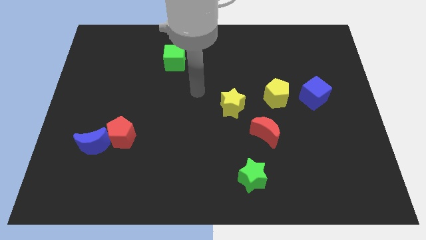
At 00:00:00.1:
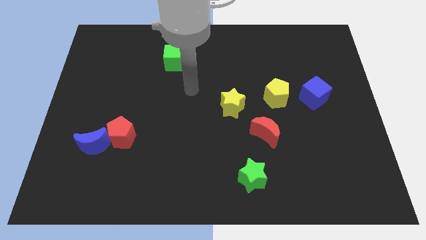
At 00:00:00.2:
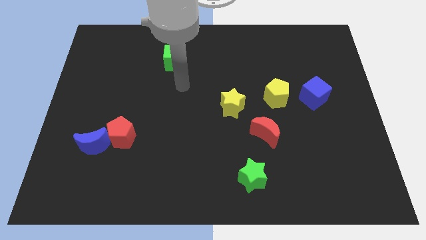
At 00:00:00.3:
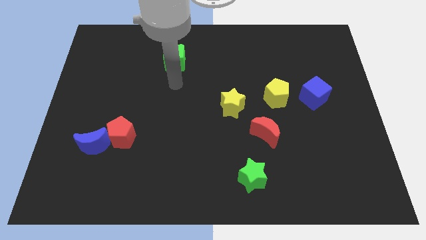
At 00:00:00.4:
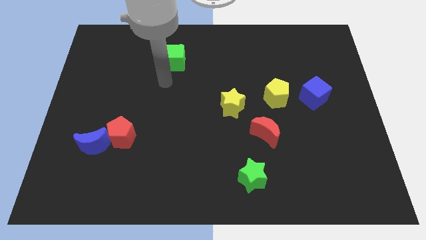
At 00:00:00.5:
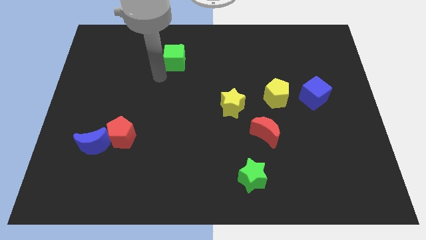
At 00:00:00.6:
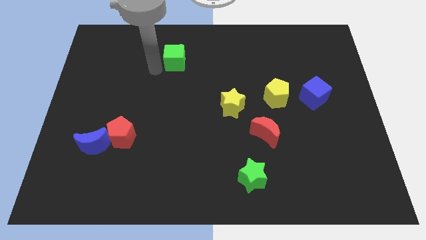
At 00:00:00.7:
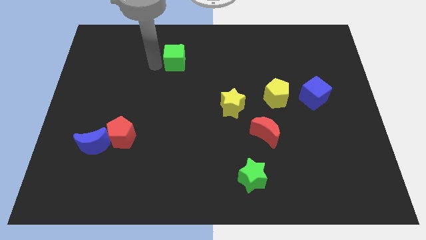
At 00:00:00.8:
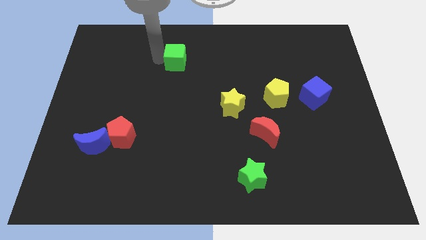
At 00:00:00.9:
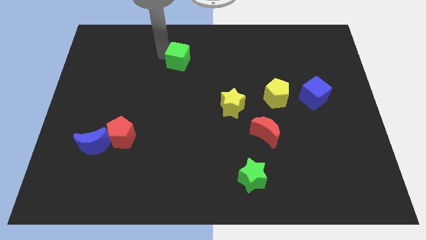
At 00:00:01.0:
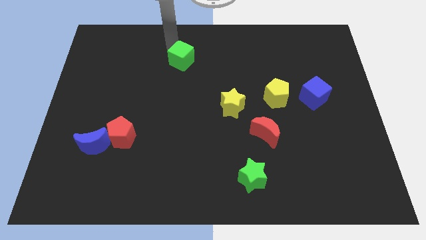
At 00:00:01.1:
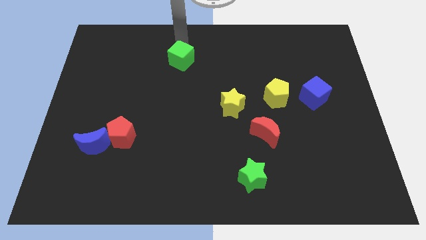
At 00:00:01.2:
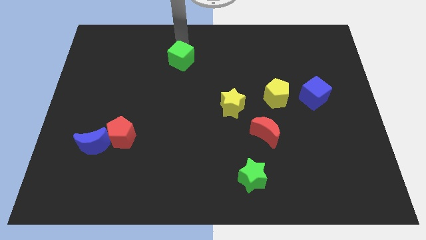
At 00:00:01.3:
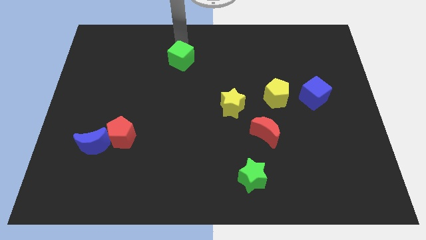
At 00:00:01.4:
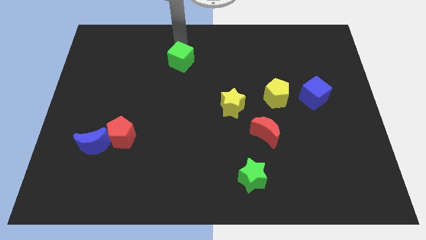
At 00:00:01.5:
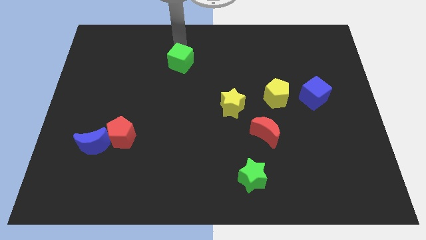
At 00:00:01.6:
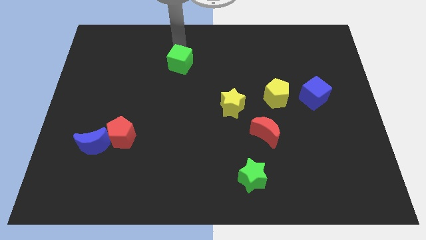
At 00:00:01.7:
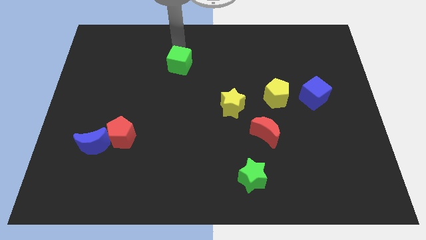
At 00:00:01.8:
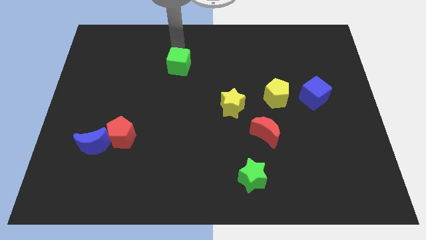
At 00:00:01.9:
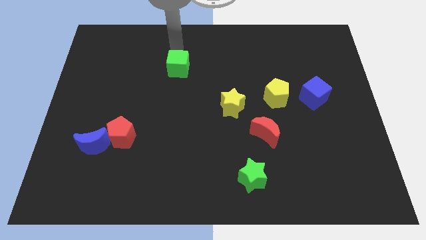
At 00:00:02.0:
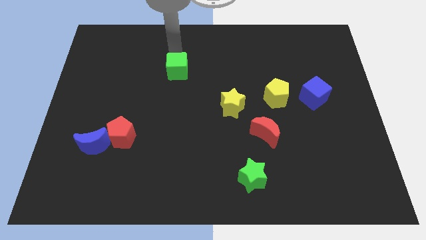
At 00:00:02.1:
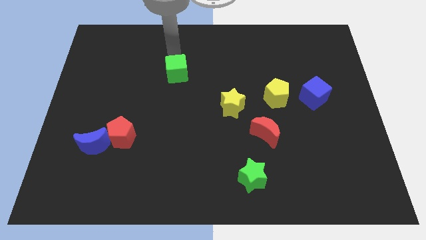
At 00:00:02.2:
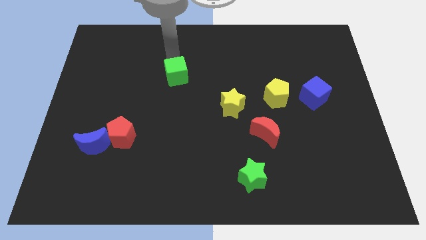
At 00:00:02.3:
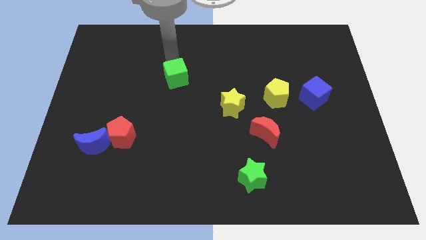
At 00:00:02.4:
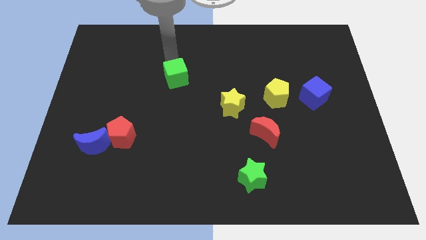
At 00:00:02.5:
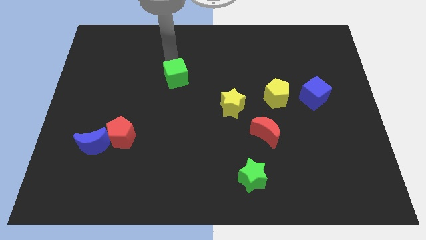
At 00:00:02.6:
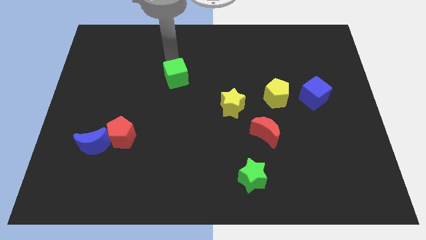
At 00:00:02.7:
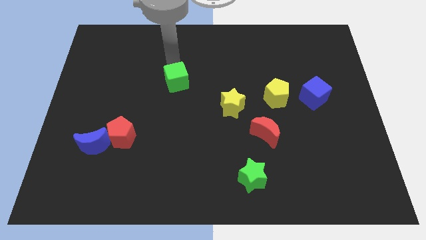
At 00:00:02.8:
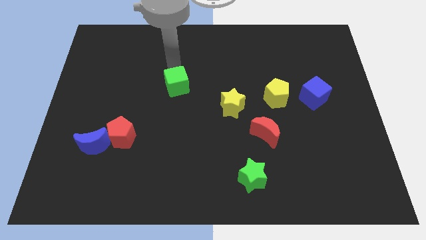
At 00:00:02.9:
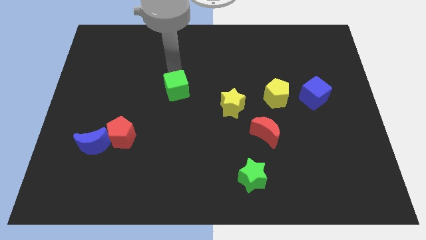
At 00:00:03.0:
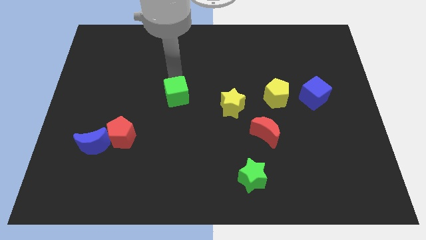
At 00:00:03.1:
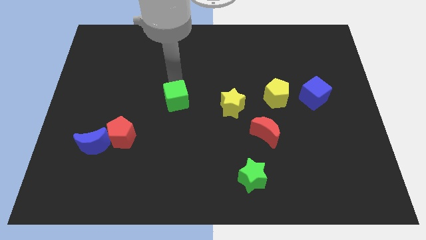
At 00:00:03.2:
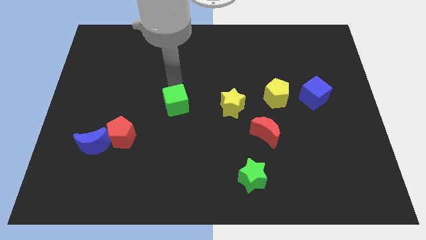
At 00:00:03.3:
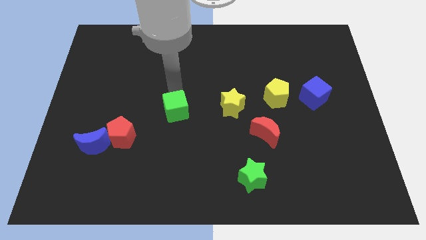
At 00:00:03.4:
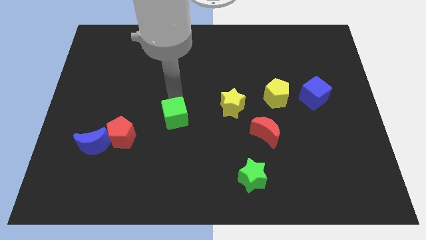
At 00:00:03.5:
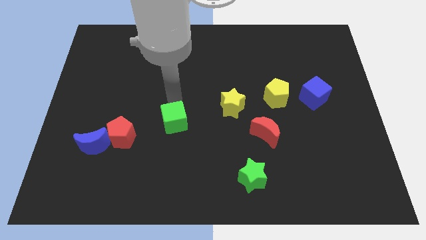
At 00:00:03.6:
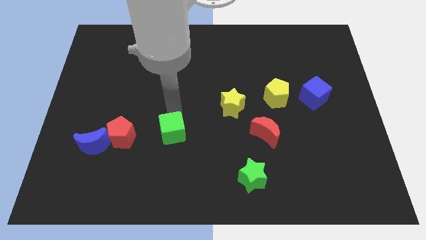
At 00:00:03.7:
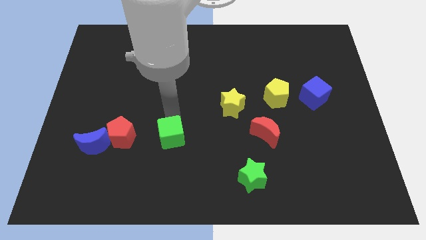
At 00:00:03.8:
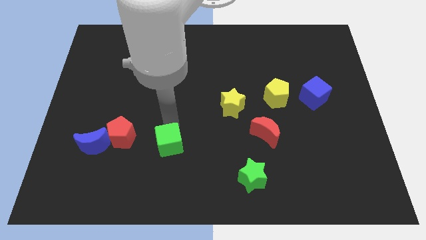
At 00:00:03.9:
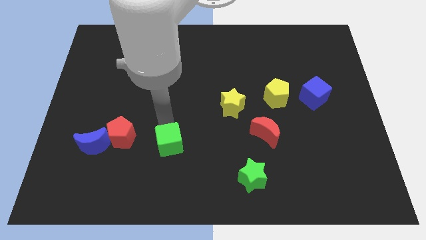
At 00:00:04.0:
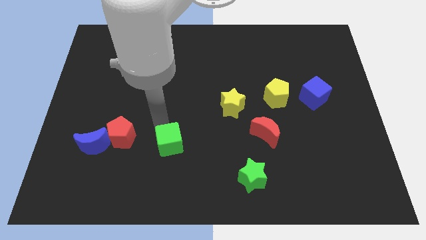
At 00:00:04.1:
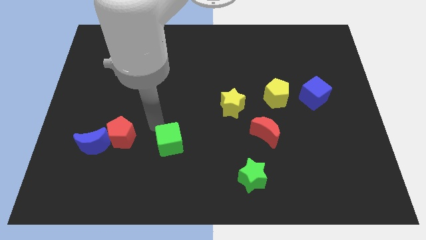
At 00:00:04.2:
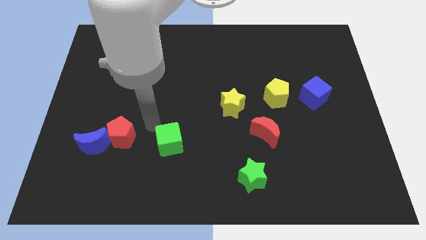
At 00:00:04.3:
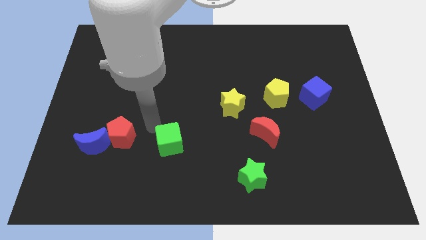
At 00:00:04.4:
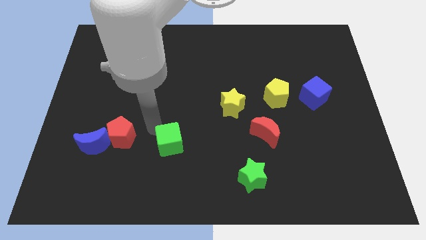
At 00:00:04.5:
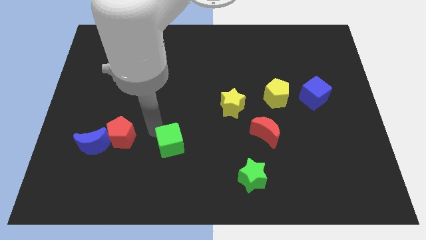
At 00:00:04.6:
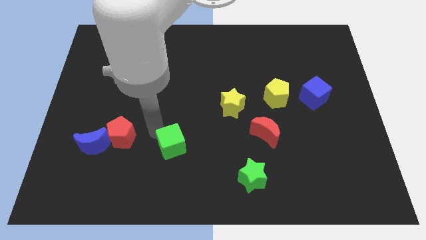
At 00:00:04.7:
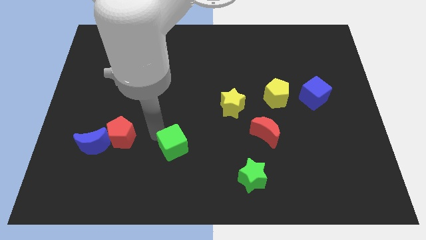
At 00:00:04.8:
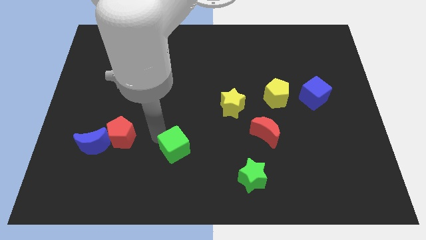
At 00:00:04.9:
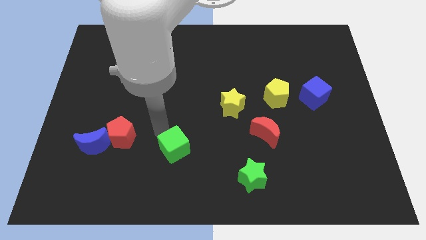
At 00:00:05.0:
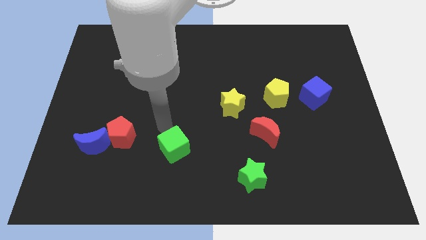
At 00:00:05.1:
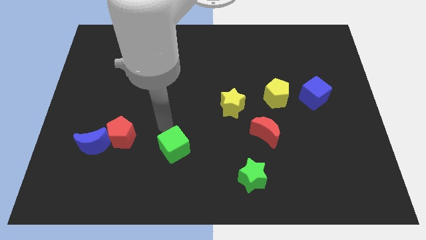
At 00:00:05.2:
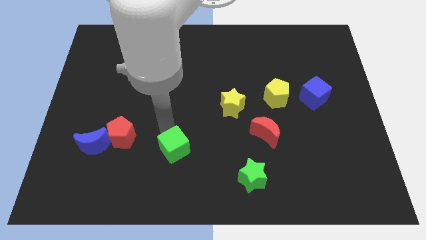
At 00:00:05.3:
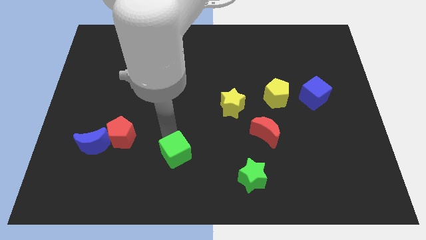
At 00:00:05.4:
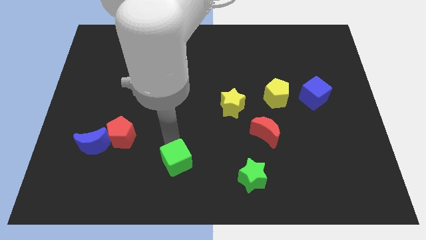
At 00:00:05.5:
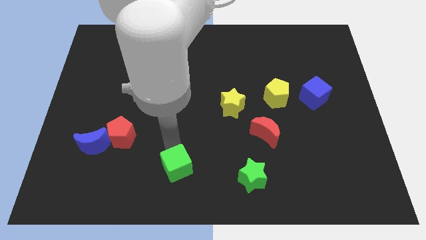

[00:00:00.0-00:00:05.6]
push the green cube to the bottom

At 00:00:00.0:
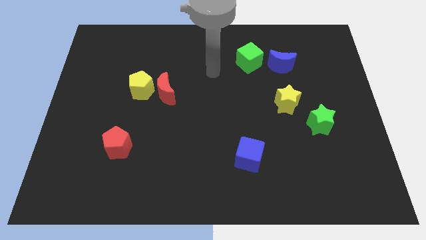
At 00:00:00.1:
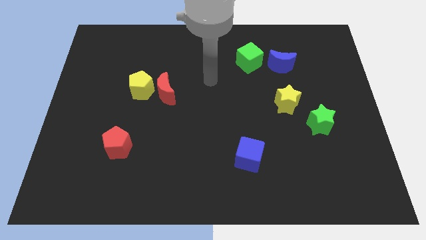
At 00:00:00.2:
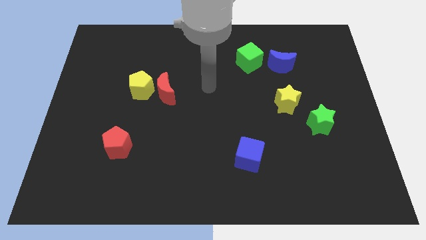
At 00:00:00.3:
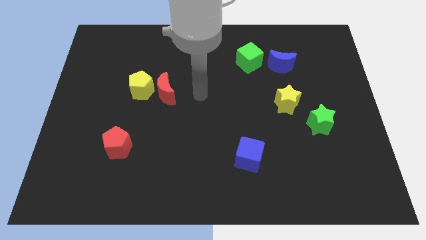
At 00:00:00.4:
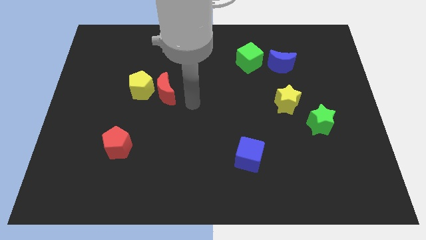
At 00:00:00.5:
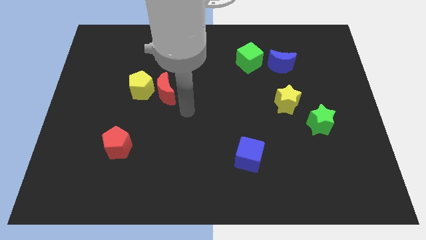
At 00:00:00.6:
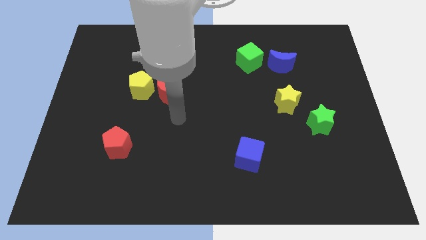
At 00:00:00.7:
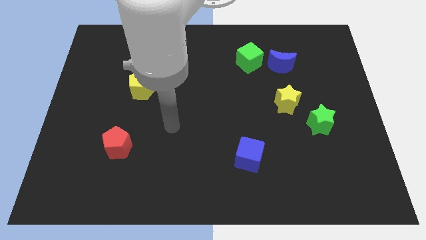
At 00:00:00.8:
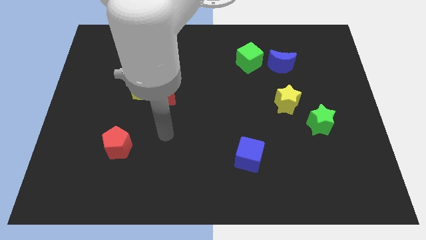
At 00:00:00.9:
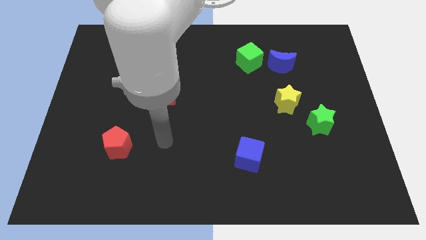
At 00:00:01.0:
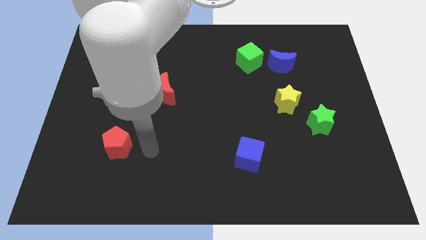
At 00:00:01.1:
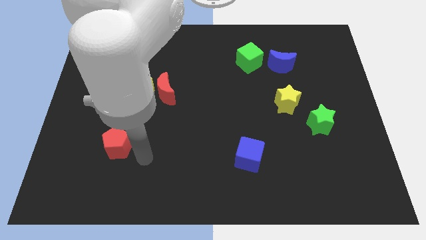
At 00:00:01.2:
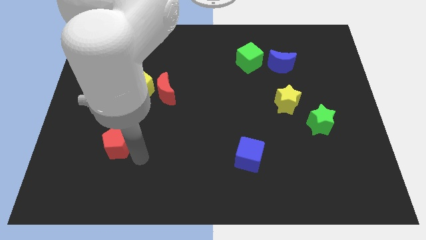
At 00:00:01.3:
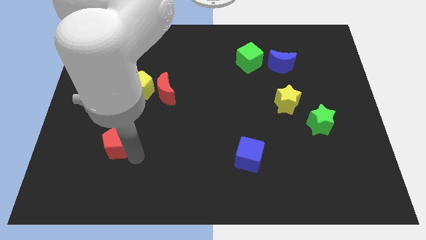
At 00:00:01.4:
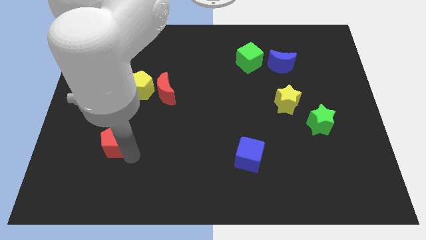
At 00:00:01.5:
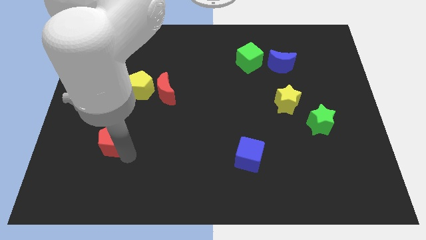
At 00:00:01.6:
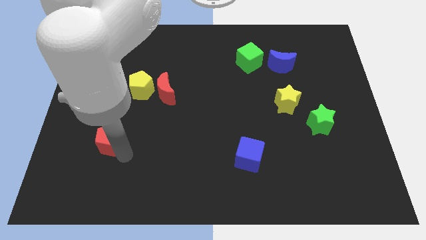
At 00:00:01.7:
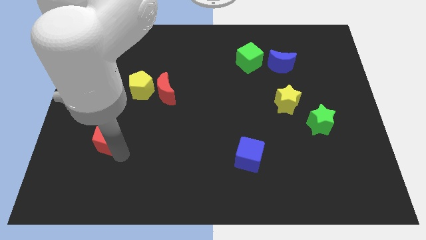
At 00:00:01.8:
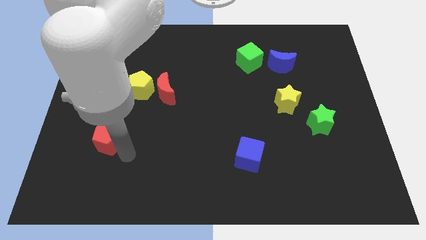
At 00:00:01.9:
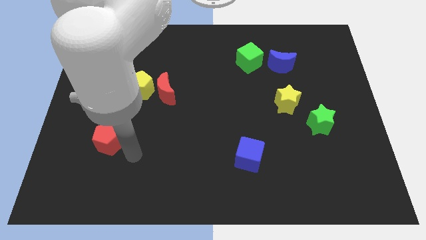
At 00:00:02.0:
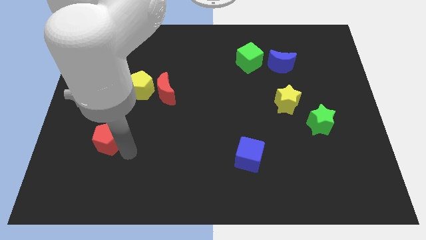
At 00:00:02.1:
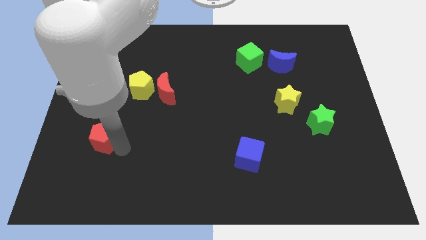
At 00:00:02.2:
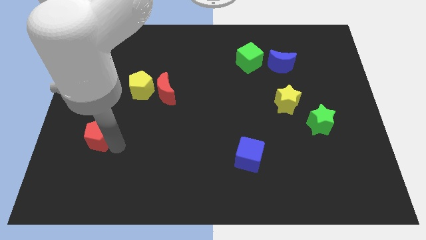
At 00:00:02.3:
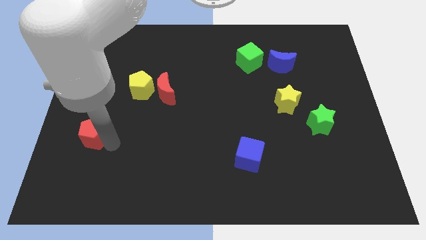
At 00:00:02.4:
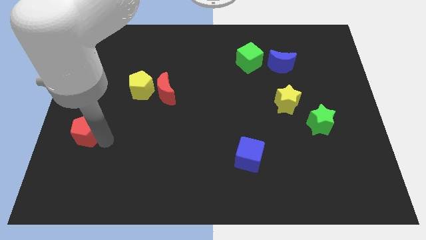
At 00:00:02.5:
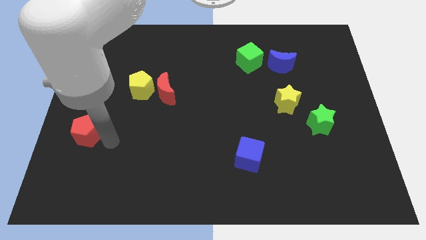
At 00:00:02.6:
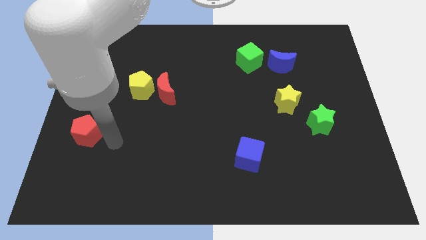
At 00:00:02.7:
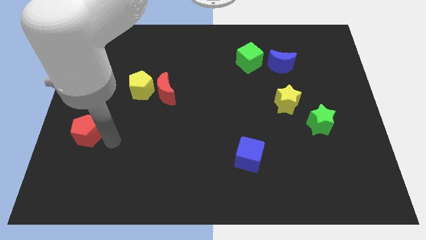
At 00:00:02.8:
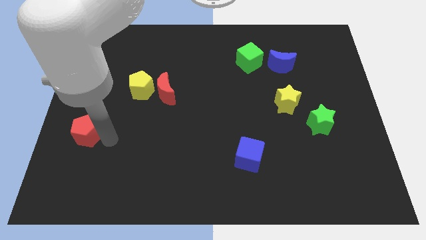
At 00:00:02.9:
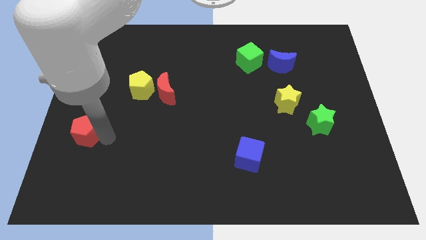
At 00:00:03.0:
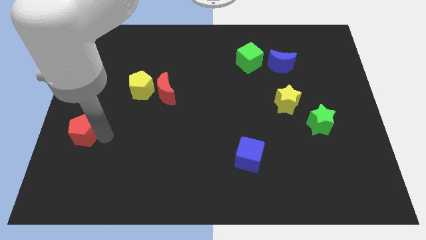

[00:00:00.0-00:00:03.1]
move the red pentagon to the left side of the board
